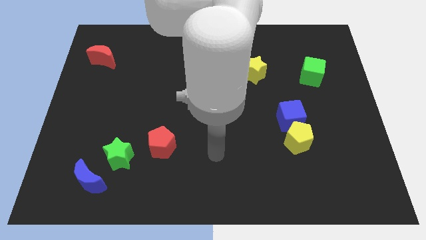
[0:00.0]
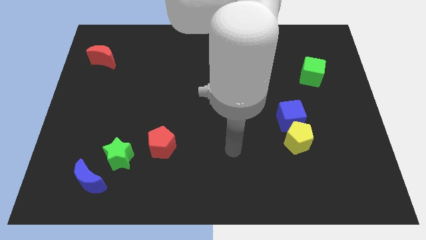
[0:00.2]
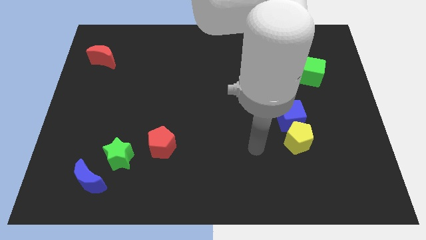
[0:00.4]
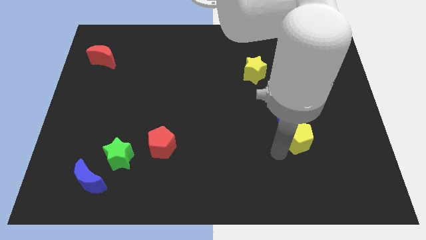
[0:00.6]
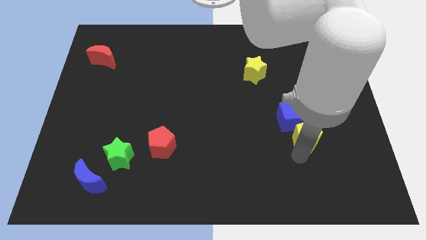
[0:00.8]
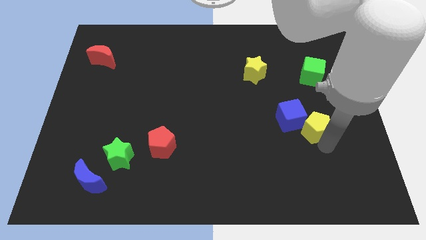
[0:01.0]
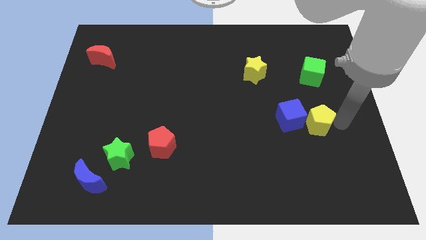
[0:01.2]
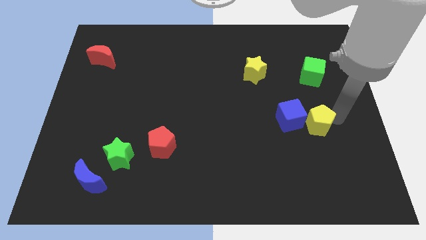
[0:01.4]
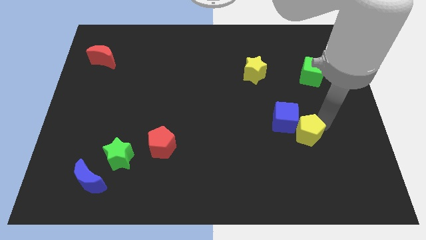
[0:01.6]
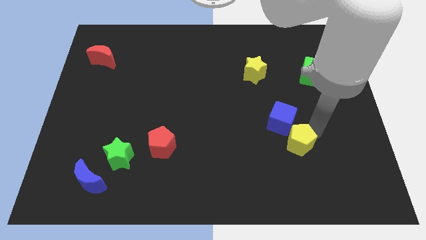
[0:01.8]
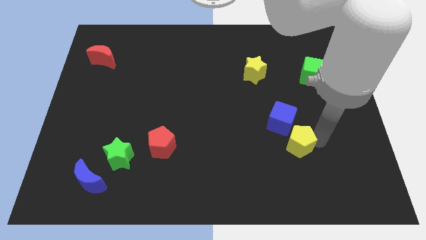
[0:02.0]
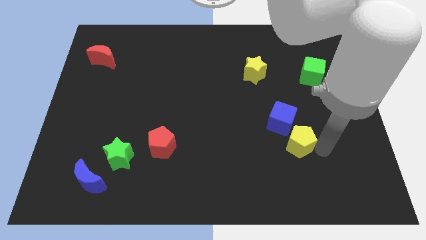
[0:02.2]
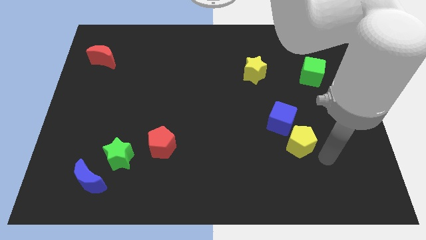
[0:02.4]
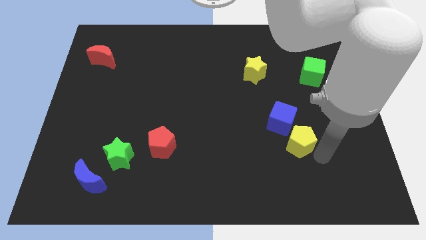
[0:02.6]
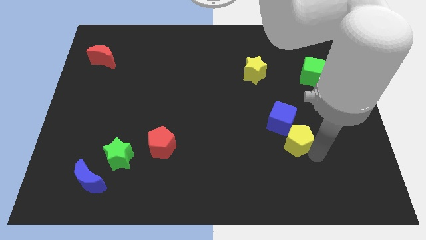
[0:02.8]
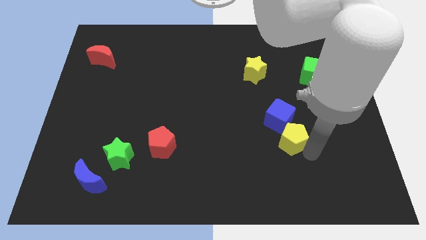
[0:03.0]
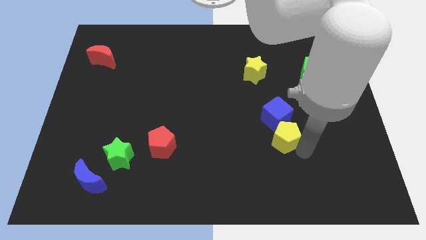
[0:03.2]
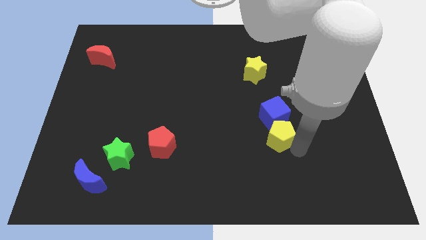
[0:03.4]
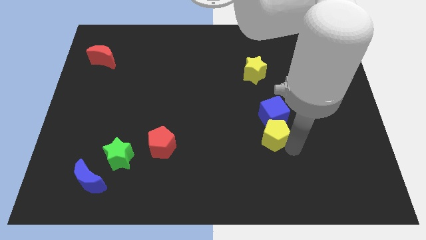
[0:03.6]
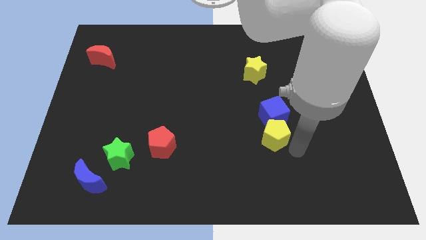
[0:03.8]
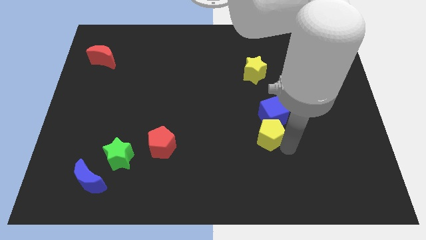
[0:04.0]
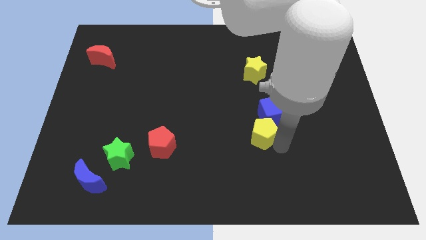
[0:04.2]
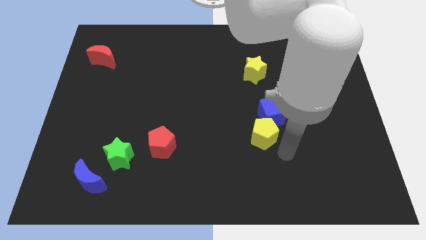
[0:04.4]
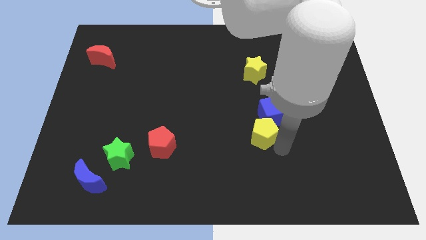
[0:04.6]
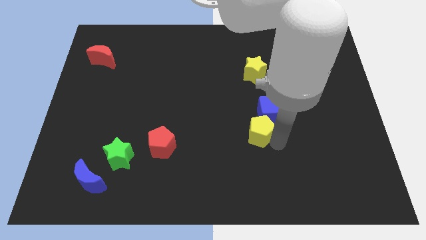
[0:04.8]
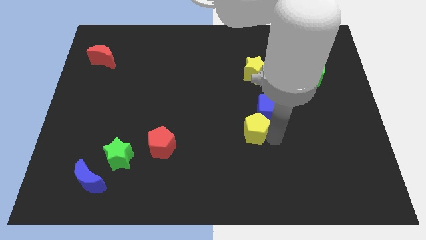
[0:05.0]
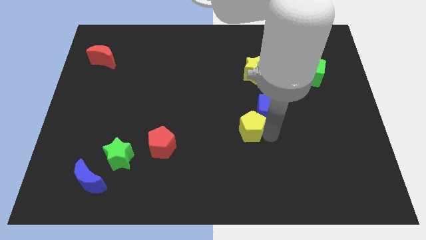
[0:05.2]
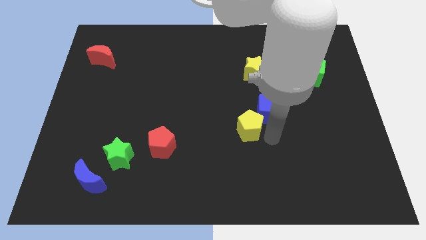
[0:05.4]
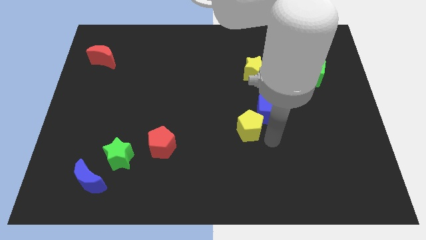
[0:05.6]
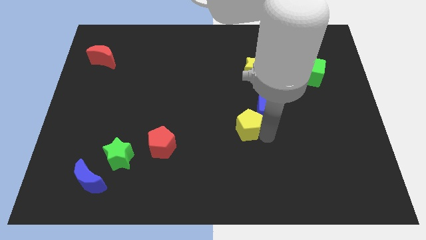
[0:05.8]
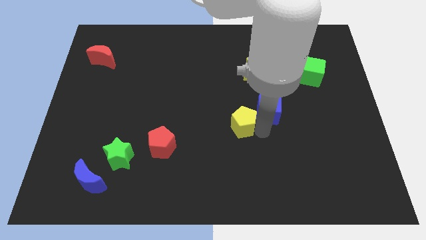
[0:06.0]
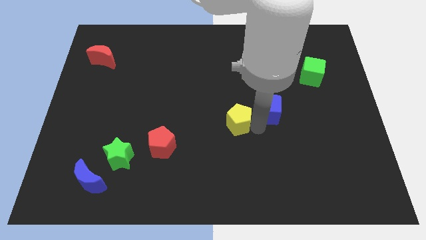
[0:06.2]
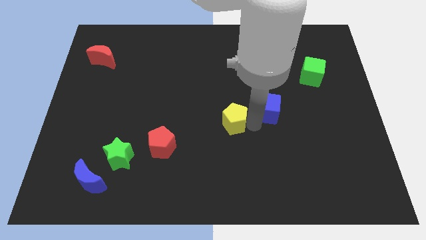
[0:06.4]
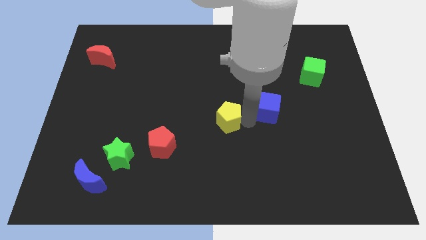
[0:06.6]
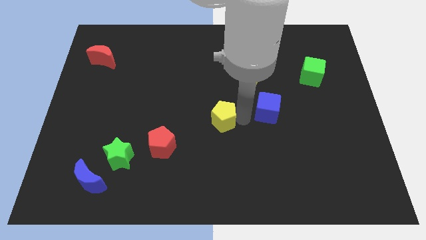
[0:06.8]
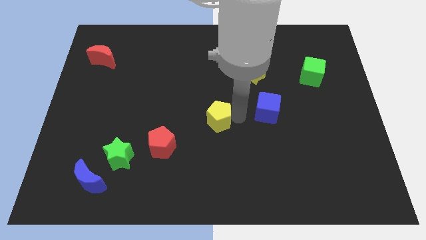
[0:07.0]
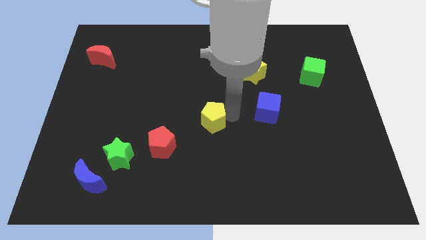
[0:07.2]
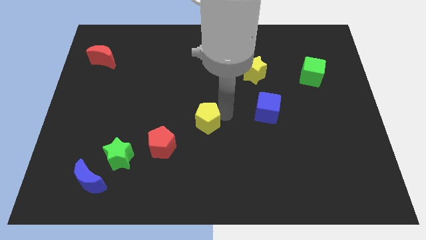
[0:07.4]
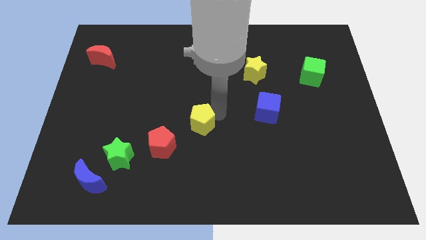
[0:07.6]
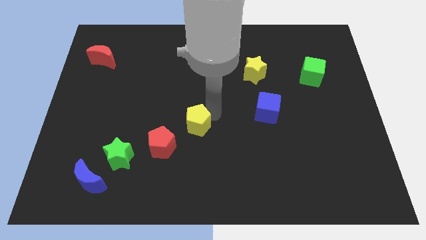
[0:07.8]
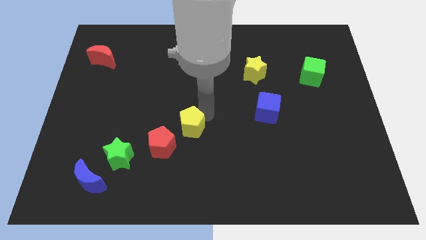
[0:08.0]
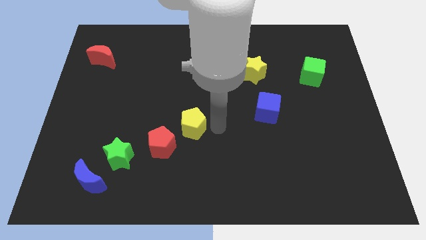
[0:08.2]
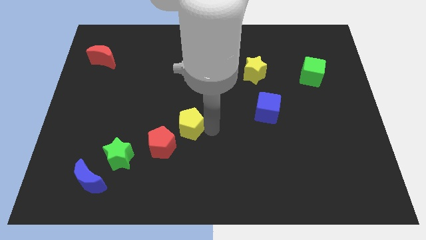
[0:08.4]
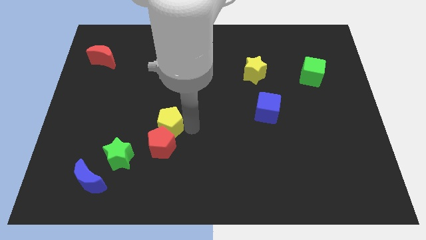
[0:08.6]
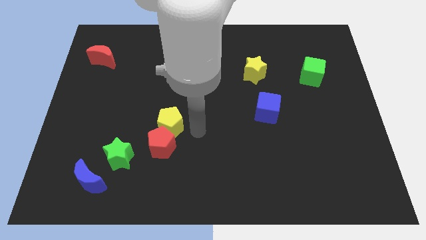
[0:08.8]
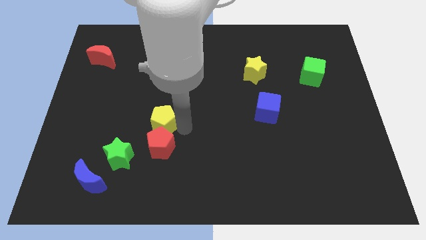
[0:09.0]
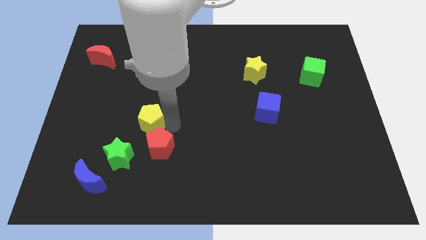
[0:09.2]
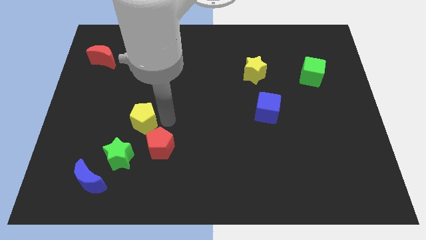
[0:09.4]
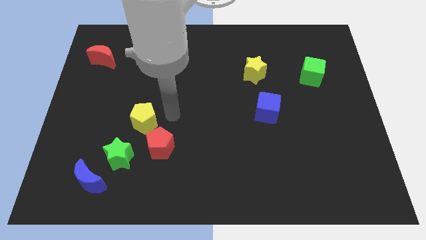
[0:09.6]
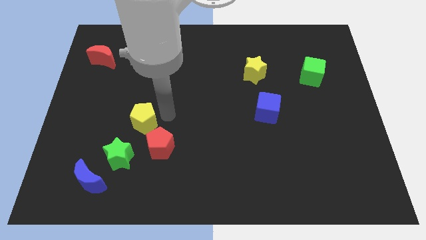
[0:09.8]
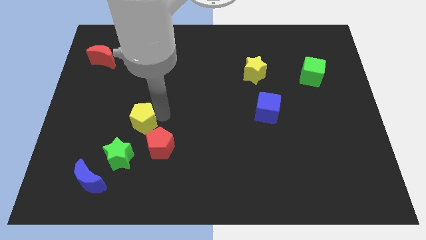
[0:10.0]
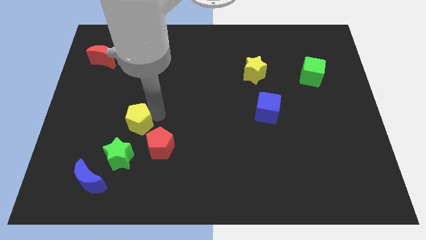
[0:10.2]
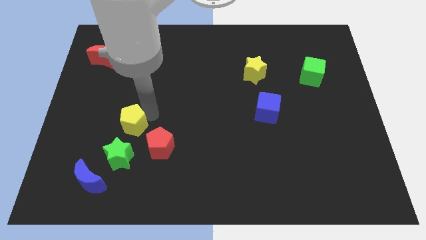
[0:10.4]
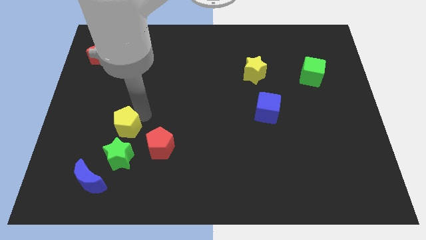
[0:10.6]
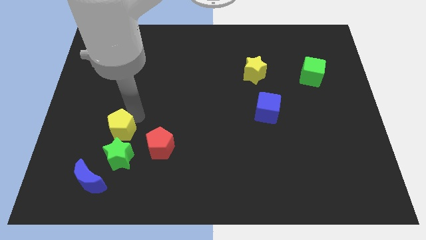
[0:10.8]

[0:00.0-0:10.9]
put the yellow pentagon diagonally up and to the left of the green star

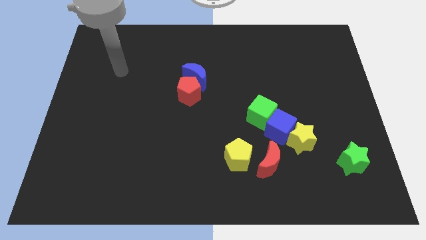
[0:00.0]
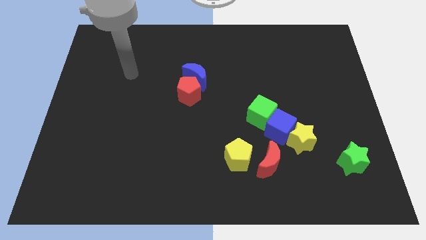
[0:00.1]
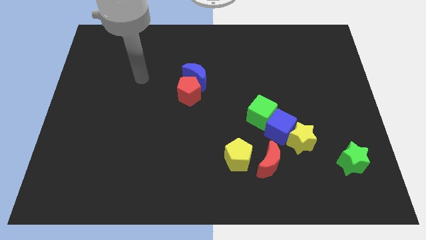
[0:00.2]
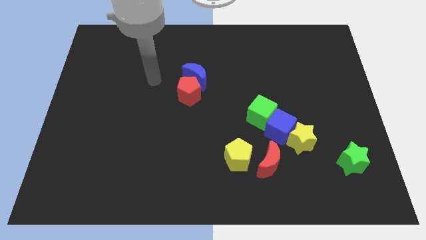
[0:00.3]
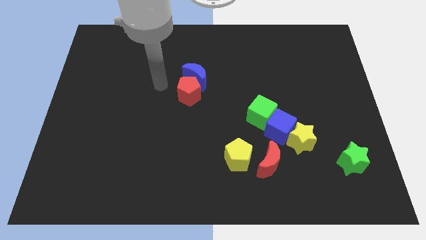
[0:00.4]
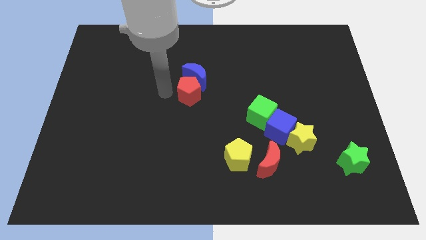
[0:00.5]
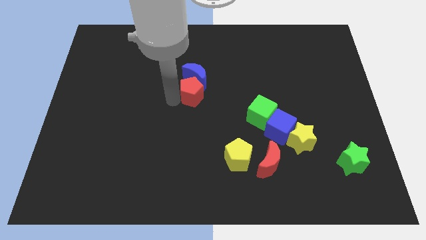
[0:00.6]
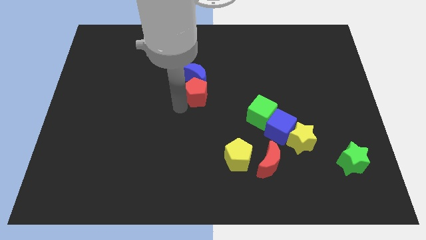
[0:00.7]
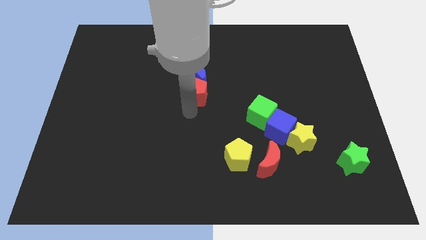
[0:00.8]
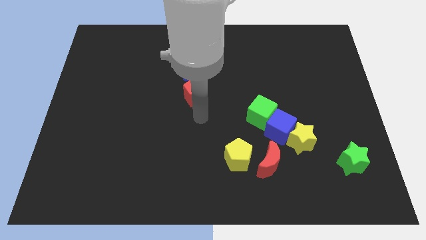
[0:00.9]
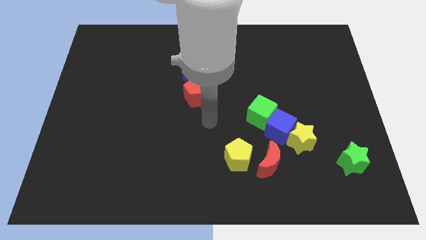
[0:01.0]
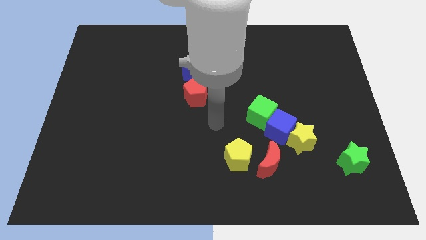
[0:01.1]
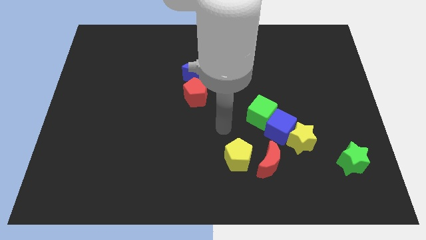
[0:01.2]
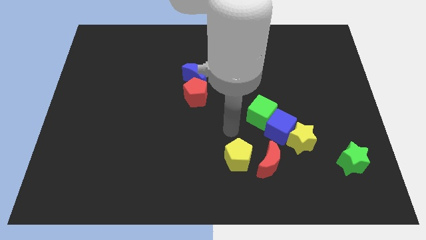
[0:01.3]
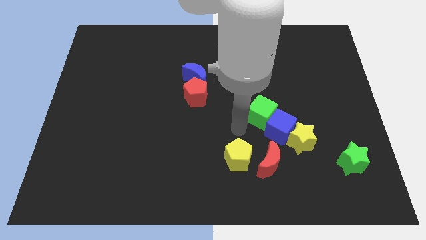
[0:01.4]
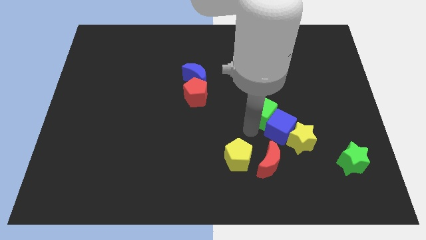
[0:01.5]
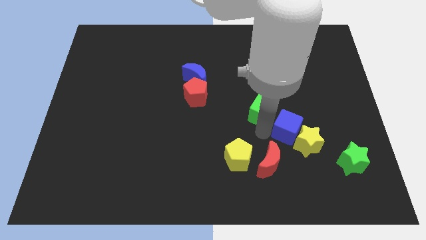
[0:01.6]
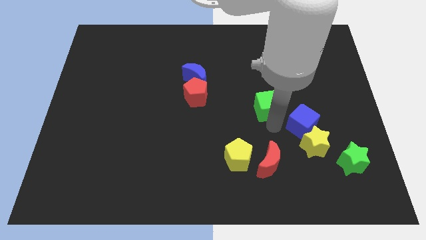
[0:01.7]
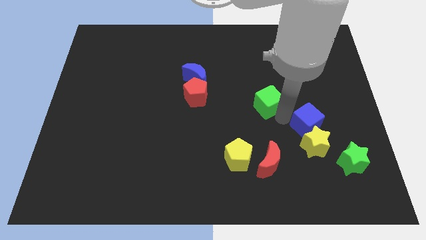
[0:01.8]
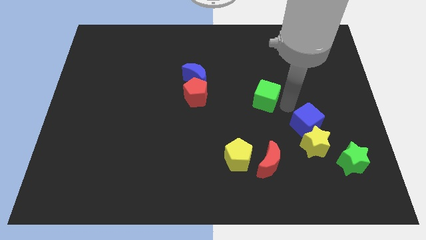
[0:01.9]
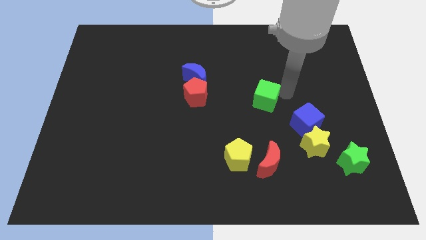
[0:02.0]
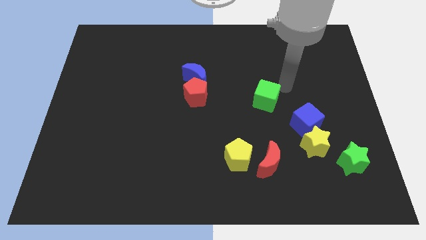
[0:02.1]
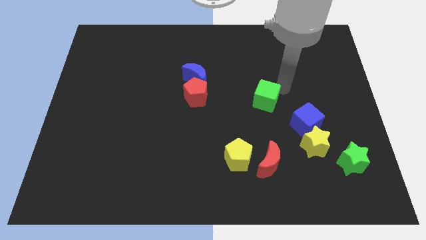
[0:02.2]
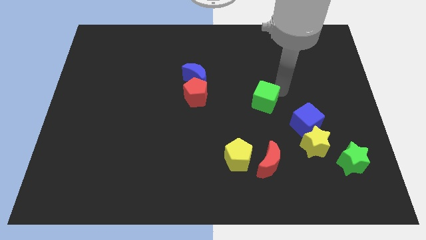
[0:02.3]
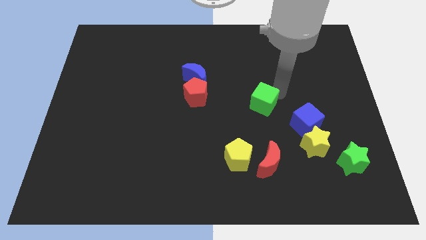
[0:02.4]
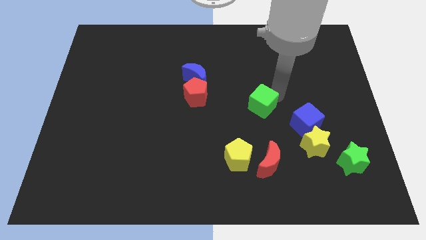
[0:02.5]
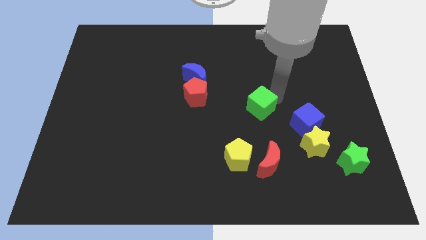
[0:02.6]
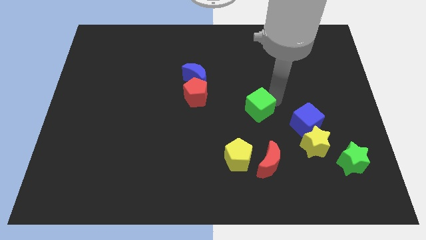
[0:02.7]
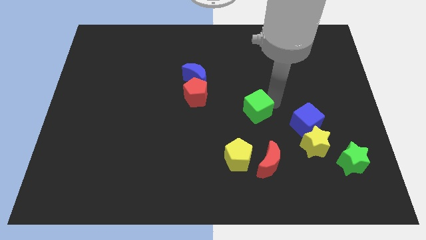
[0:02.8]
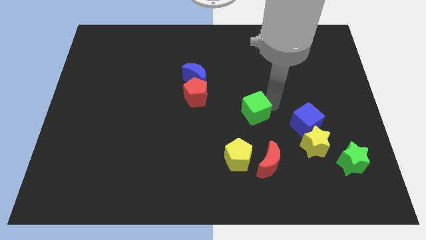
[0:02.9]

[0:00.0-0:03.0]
push the green cube to the top side of the yellow pentagon
